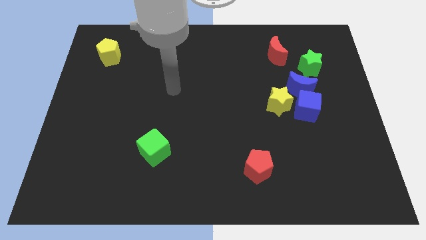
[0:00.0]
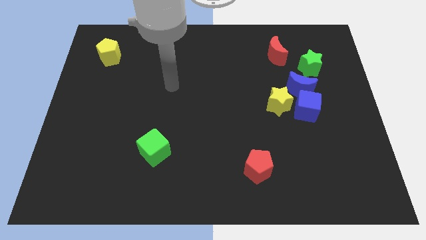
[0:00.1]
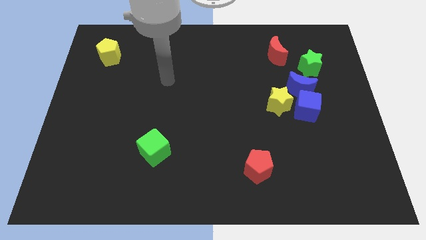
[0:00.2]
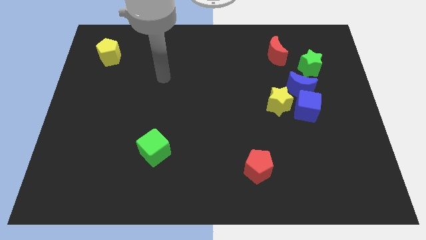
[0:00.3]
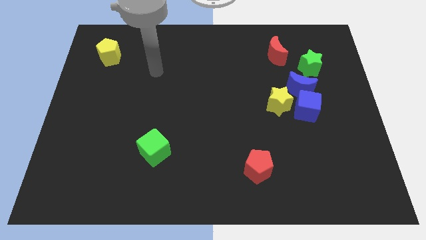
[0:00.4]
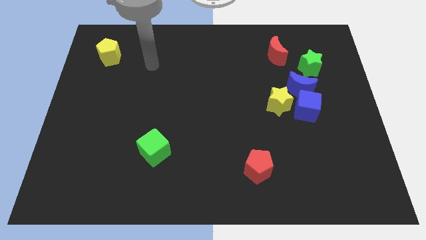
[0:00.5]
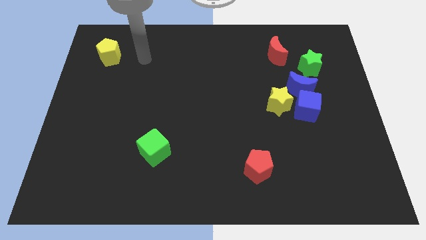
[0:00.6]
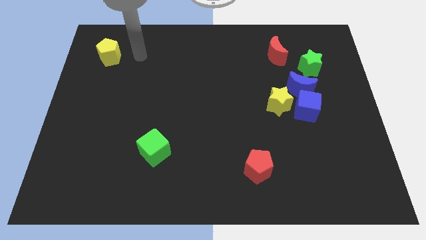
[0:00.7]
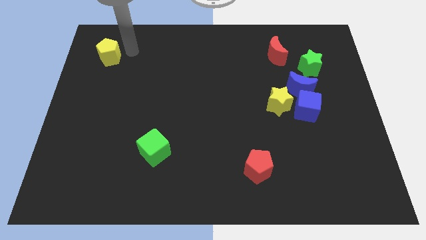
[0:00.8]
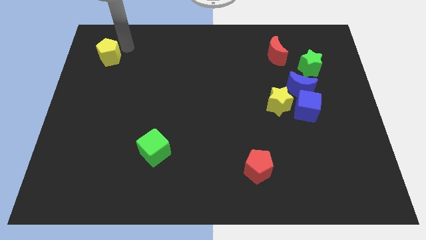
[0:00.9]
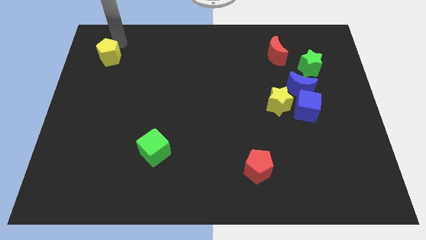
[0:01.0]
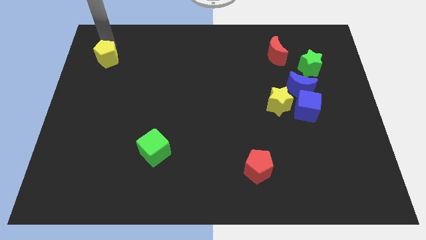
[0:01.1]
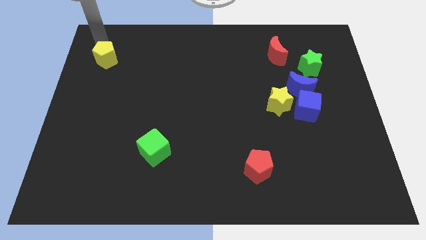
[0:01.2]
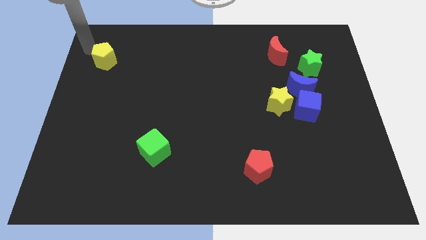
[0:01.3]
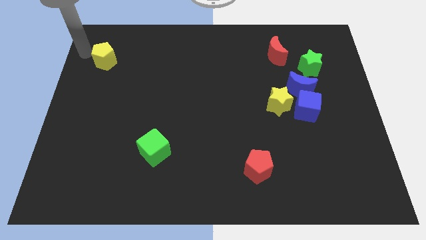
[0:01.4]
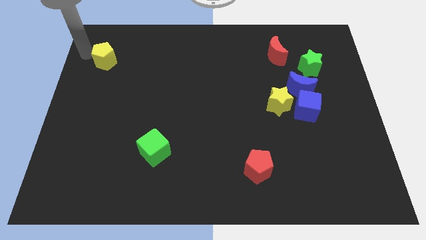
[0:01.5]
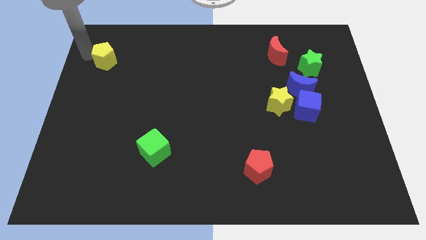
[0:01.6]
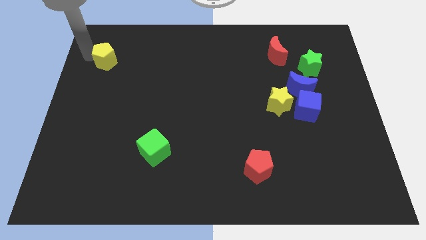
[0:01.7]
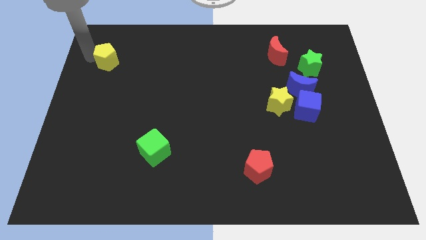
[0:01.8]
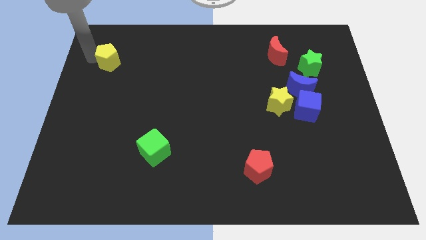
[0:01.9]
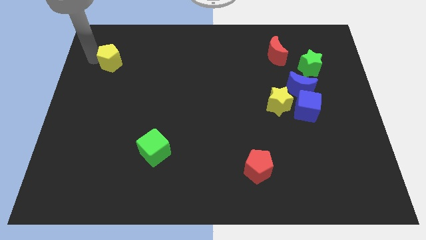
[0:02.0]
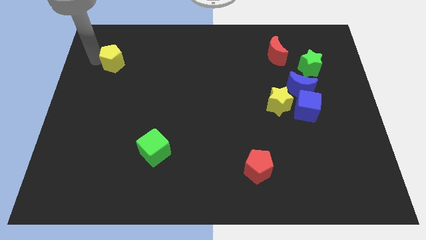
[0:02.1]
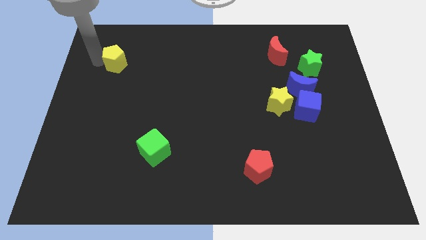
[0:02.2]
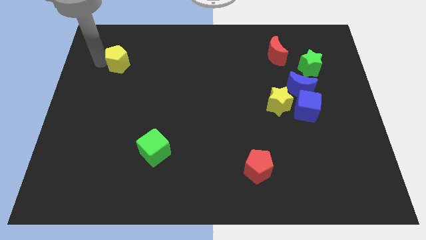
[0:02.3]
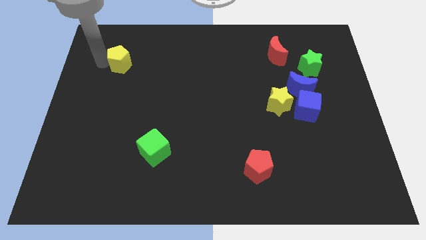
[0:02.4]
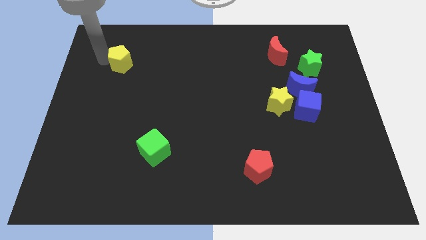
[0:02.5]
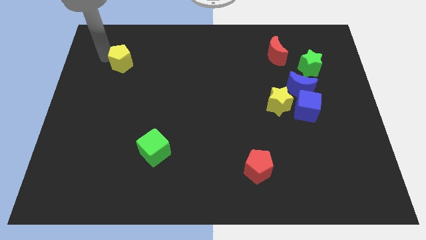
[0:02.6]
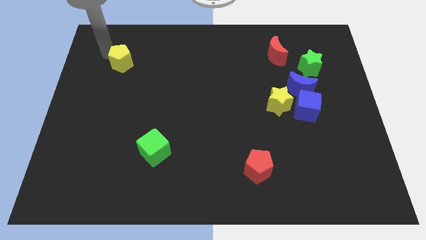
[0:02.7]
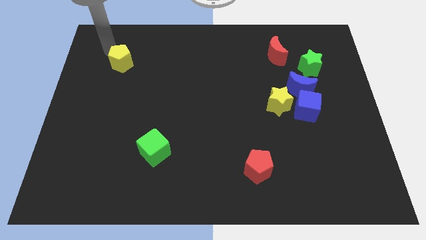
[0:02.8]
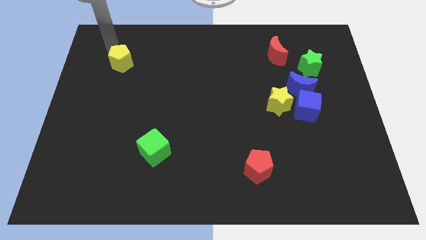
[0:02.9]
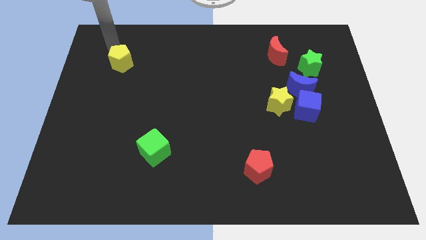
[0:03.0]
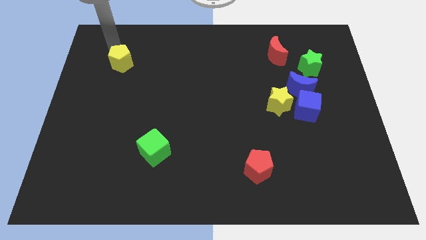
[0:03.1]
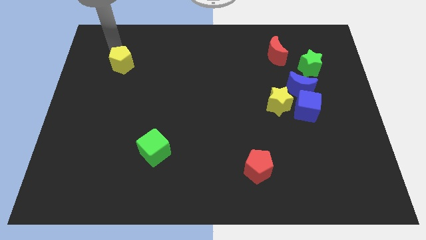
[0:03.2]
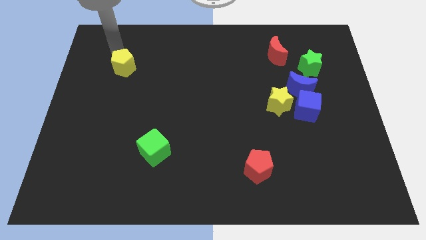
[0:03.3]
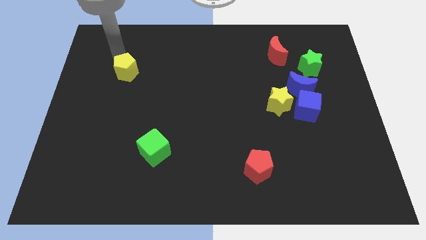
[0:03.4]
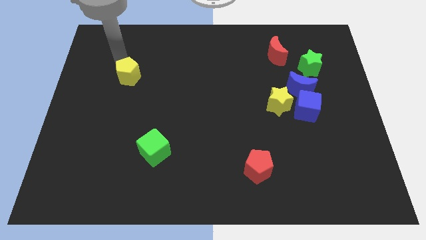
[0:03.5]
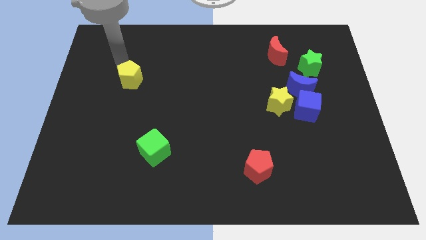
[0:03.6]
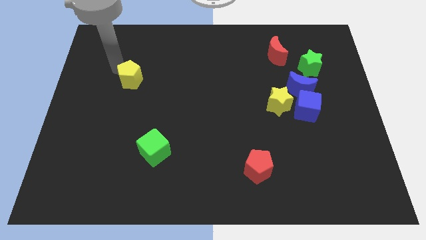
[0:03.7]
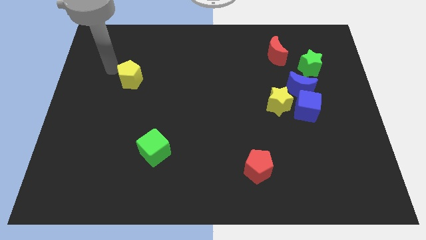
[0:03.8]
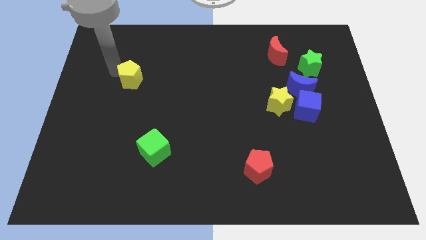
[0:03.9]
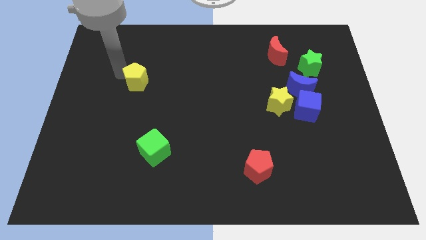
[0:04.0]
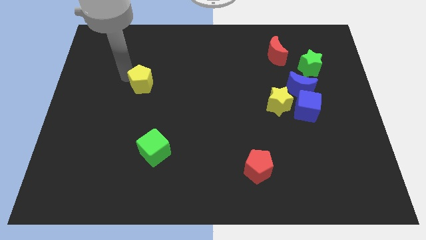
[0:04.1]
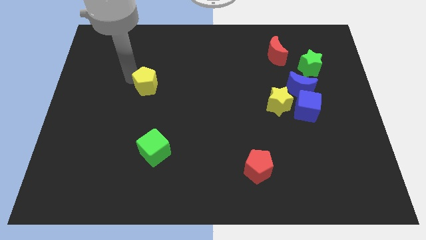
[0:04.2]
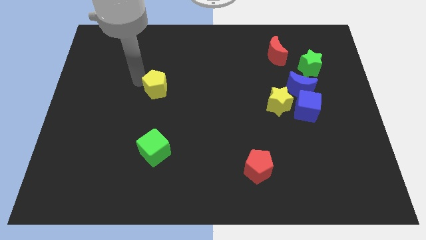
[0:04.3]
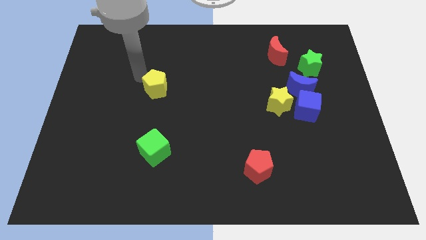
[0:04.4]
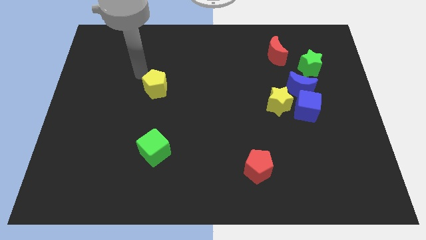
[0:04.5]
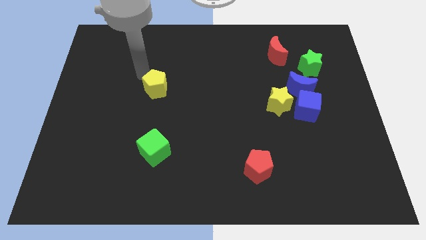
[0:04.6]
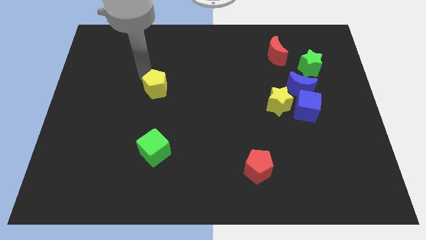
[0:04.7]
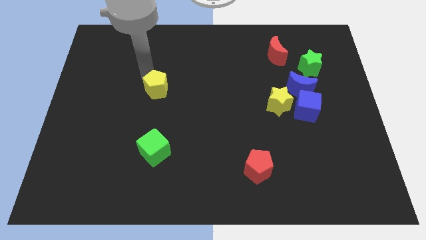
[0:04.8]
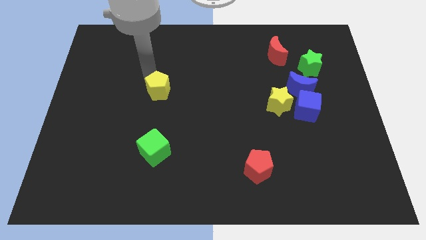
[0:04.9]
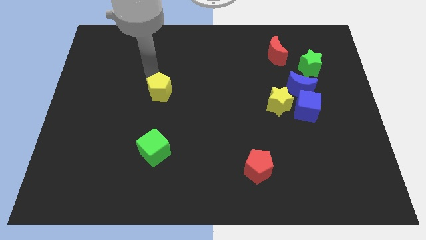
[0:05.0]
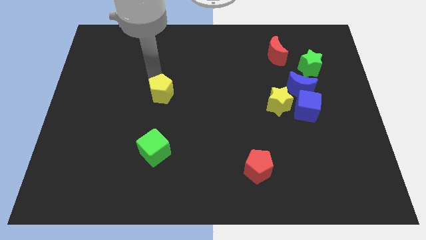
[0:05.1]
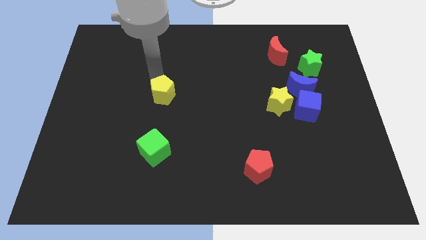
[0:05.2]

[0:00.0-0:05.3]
slide the yellow pentagon downwards and then right

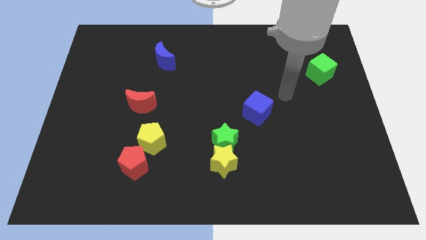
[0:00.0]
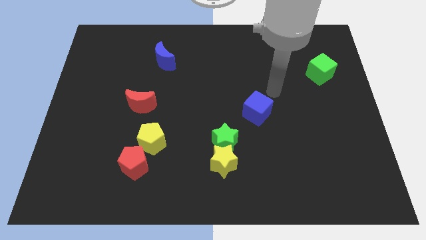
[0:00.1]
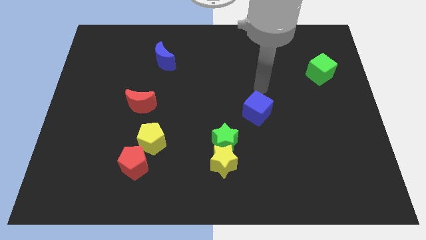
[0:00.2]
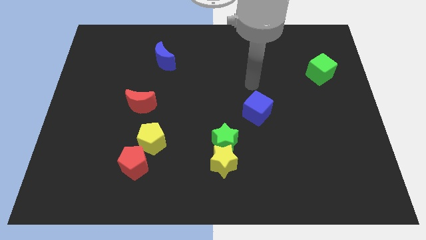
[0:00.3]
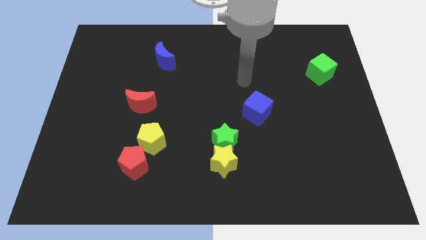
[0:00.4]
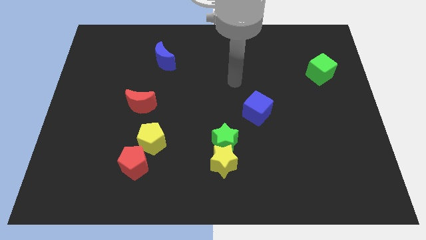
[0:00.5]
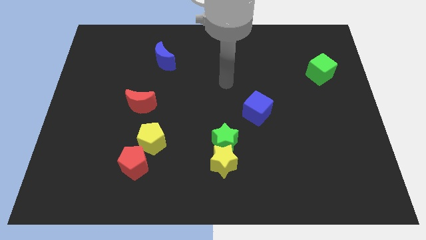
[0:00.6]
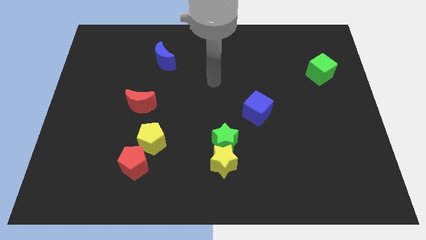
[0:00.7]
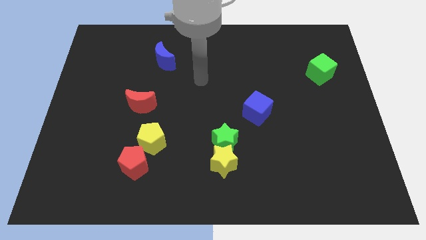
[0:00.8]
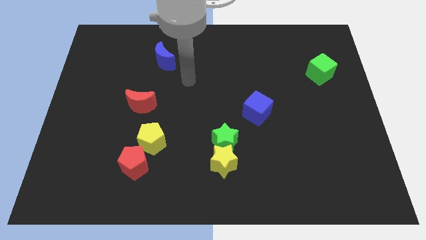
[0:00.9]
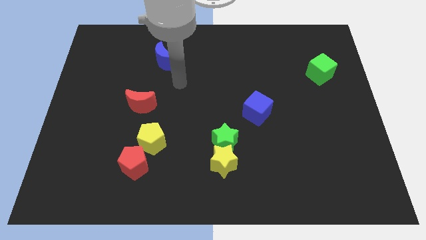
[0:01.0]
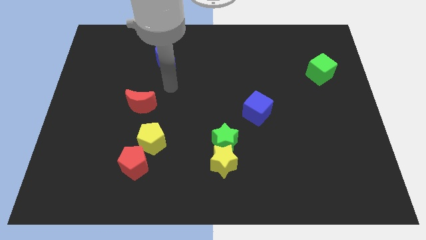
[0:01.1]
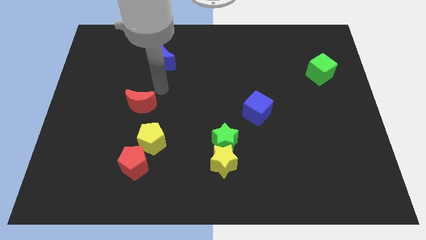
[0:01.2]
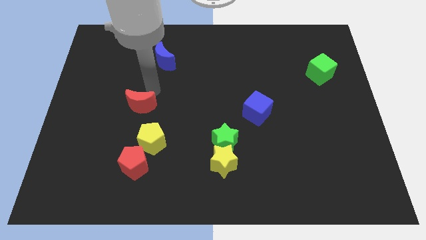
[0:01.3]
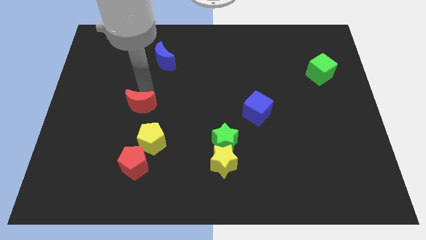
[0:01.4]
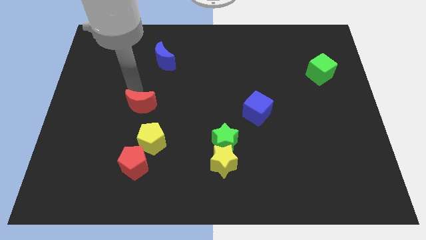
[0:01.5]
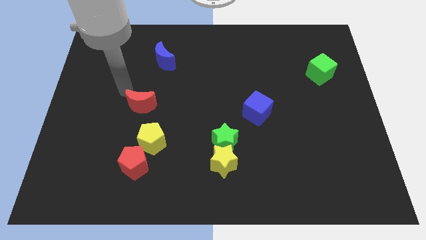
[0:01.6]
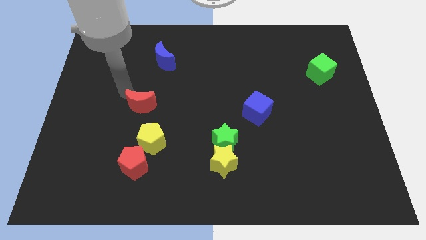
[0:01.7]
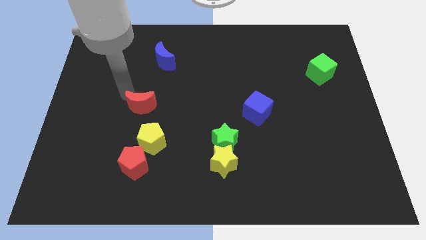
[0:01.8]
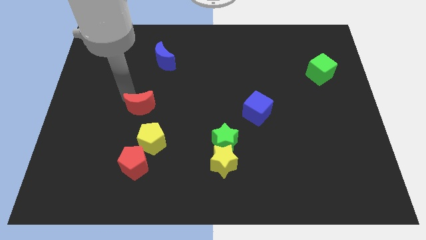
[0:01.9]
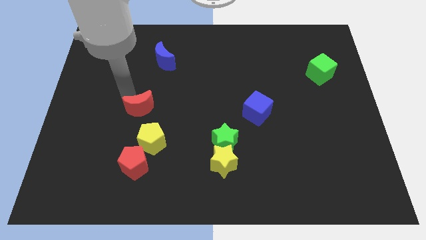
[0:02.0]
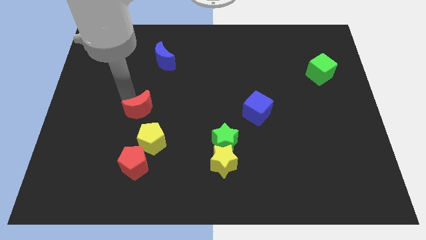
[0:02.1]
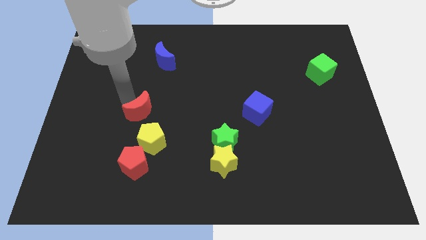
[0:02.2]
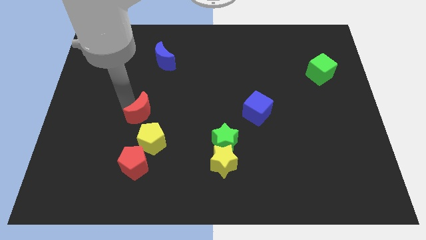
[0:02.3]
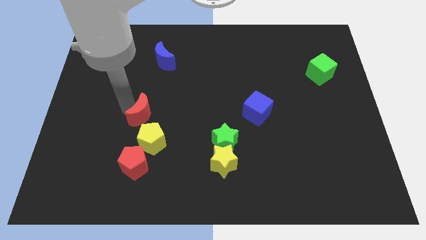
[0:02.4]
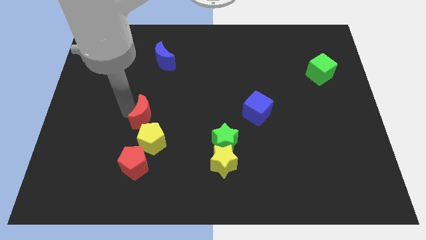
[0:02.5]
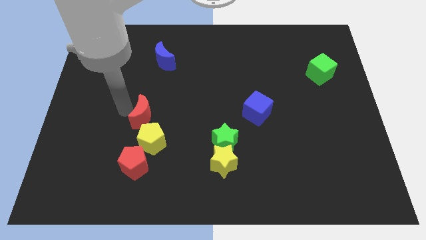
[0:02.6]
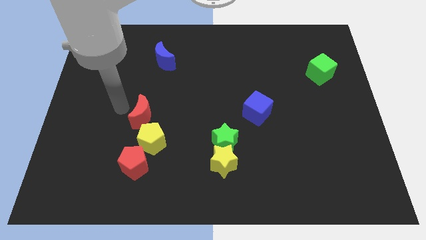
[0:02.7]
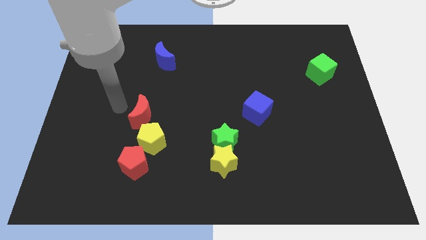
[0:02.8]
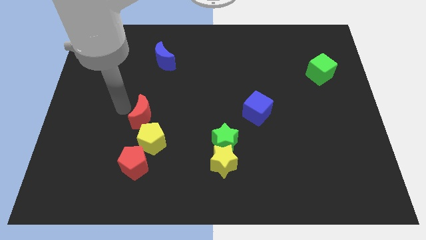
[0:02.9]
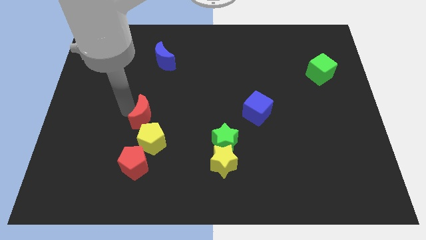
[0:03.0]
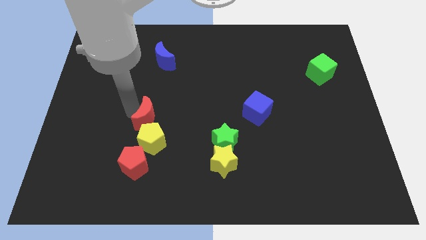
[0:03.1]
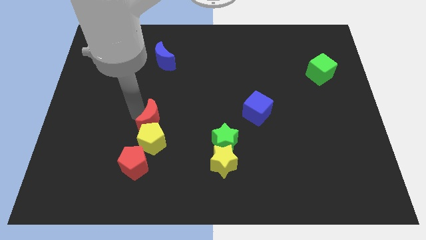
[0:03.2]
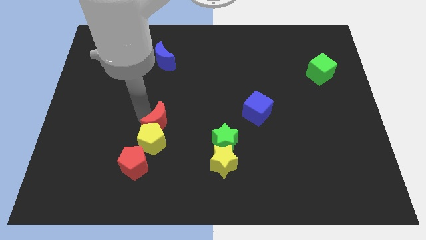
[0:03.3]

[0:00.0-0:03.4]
push the red moon a little diagonally downwards and right
